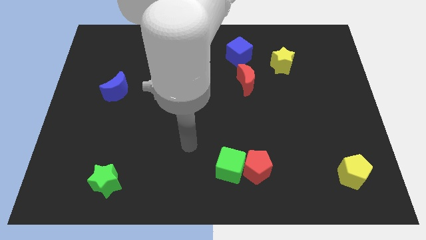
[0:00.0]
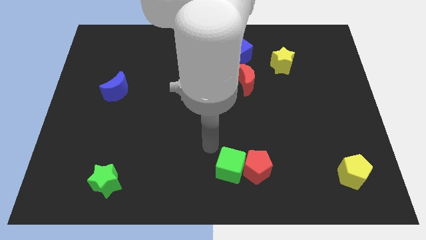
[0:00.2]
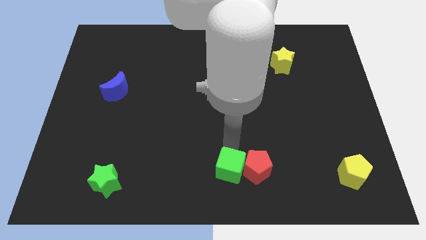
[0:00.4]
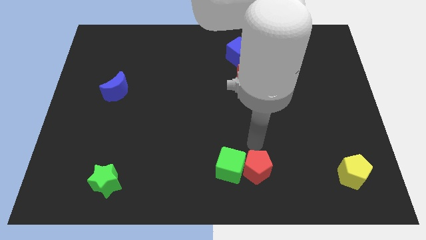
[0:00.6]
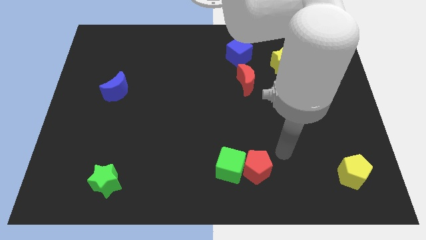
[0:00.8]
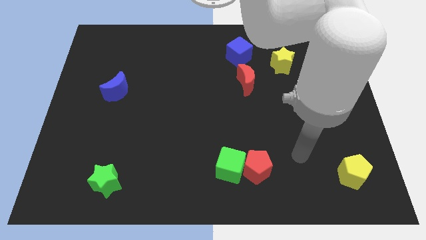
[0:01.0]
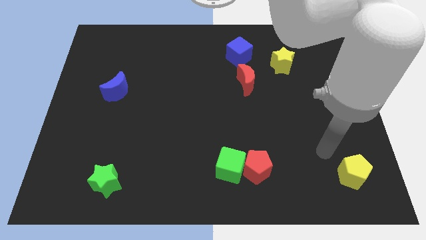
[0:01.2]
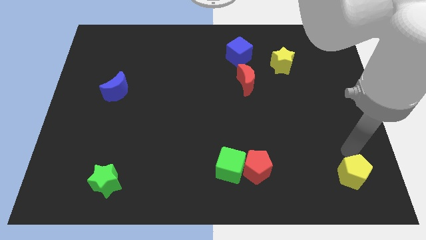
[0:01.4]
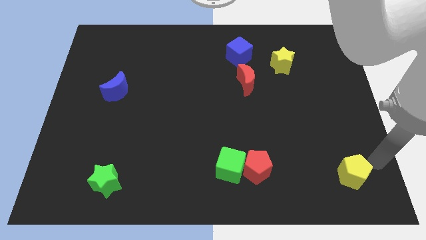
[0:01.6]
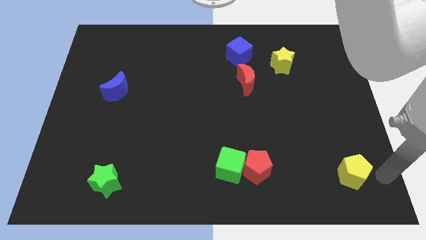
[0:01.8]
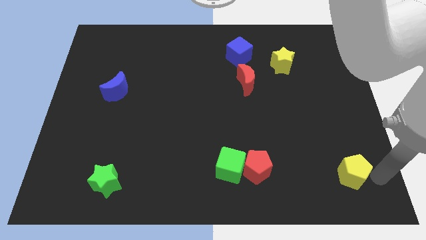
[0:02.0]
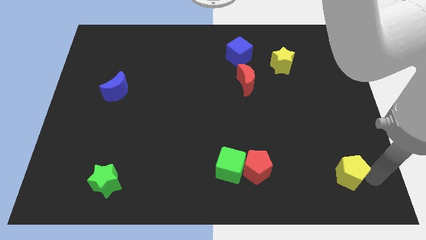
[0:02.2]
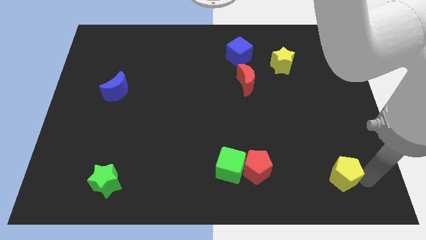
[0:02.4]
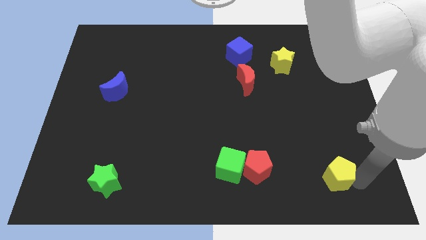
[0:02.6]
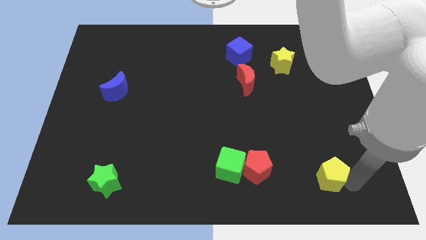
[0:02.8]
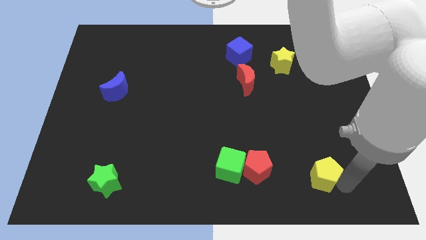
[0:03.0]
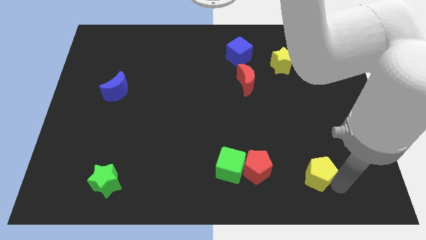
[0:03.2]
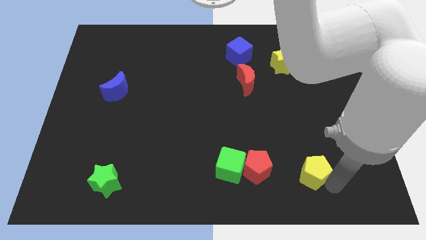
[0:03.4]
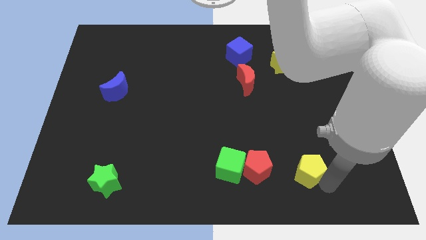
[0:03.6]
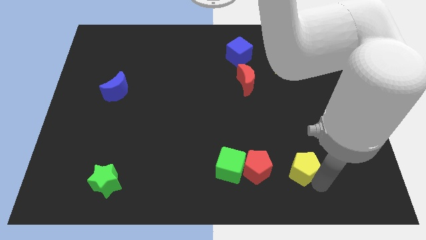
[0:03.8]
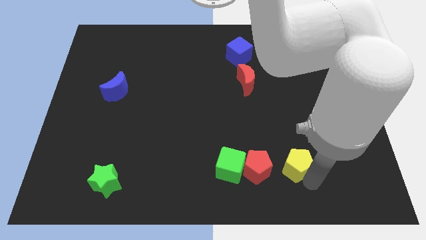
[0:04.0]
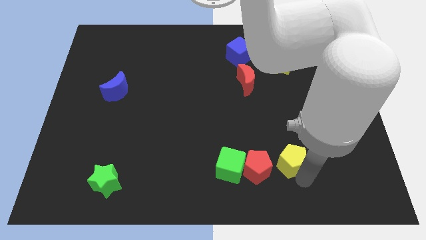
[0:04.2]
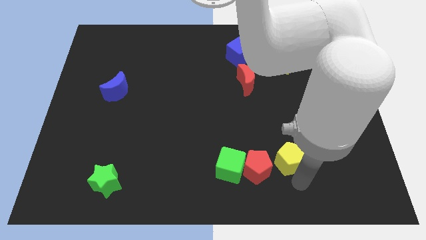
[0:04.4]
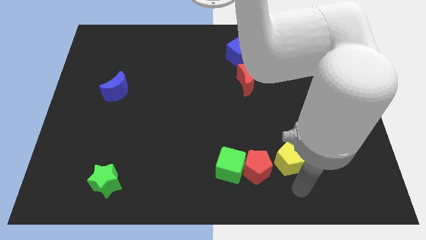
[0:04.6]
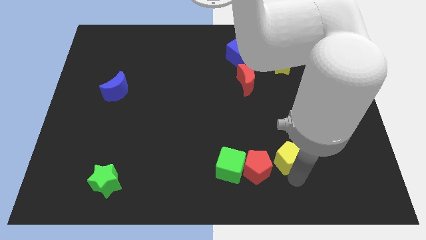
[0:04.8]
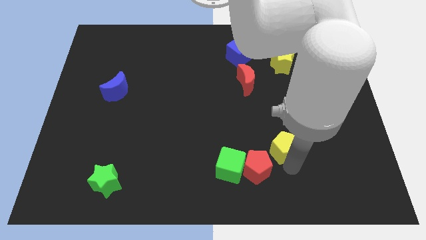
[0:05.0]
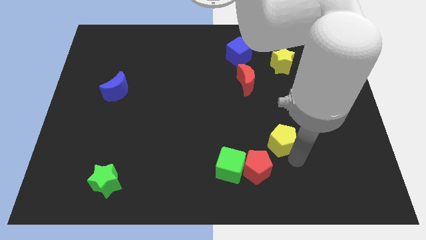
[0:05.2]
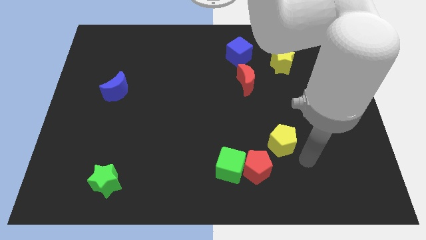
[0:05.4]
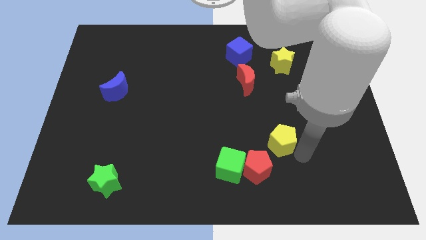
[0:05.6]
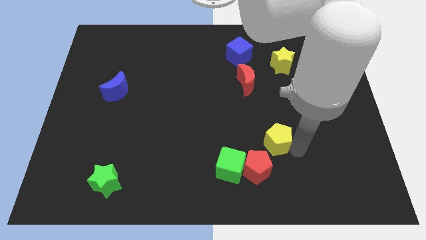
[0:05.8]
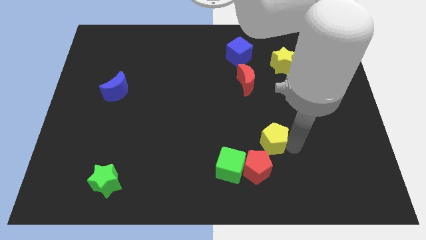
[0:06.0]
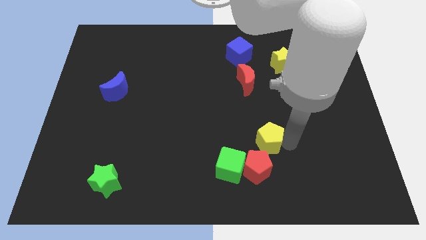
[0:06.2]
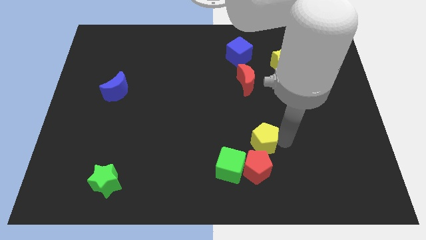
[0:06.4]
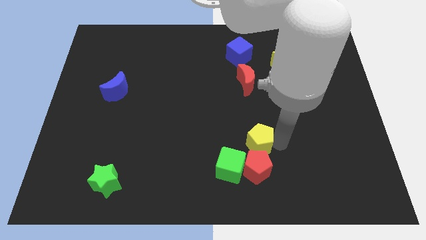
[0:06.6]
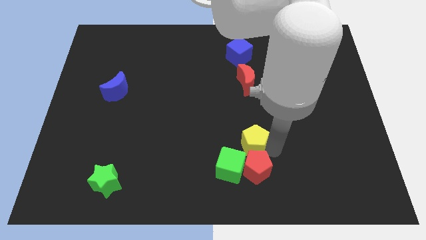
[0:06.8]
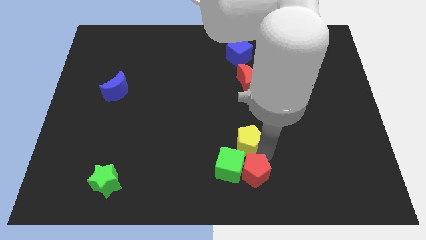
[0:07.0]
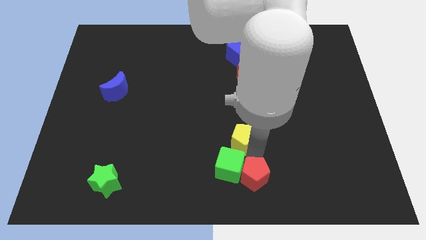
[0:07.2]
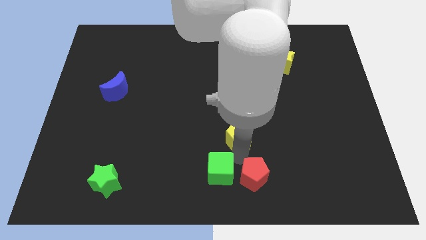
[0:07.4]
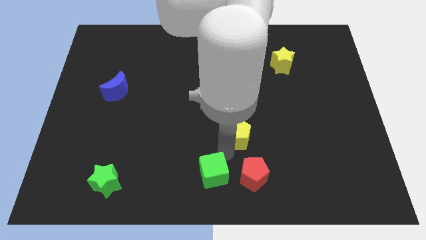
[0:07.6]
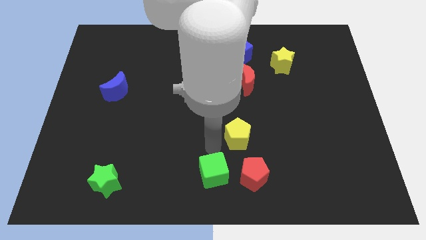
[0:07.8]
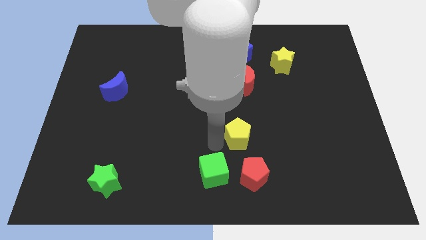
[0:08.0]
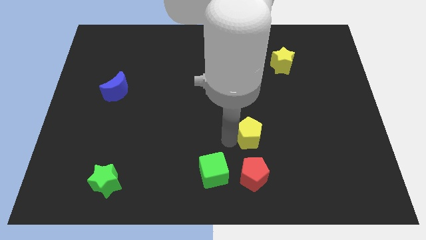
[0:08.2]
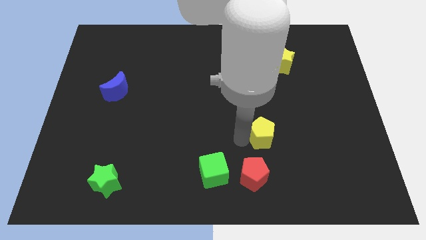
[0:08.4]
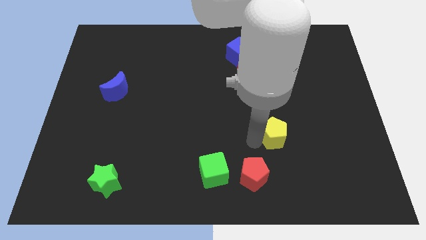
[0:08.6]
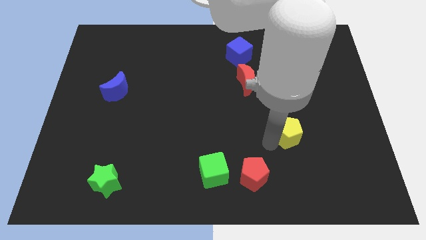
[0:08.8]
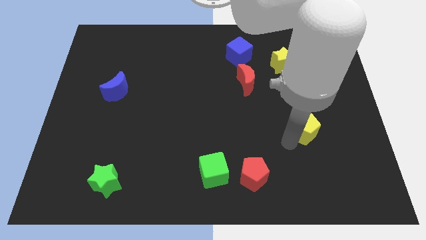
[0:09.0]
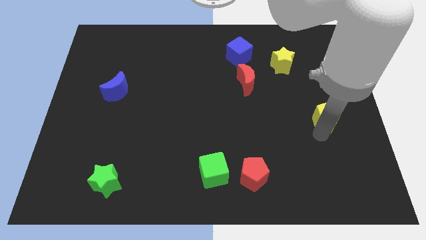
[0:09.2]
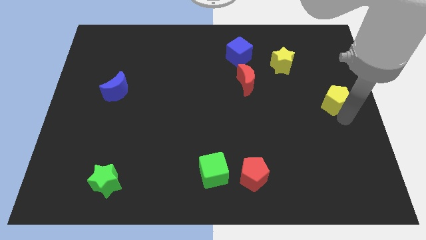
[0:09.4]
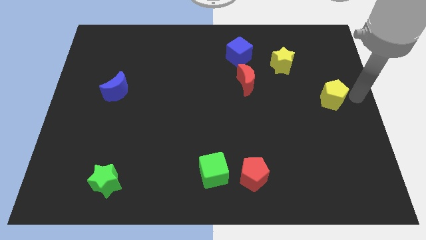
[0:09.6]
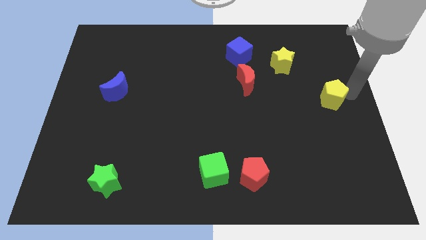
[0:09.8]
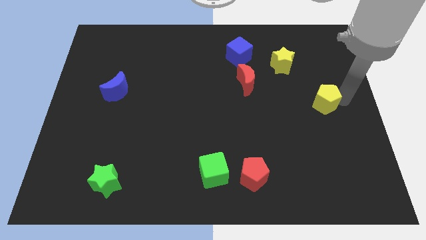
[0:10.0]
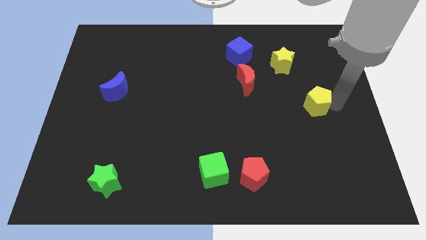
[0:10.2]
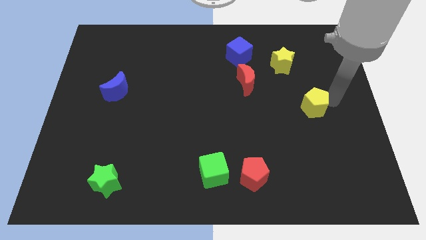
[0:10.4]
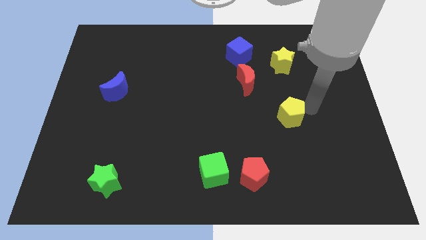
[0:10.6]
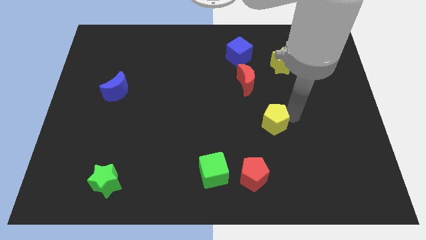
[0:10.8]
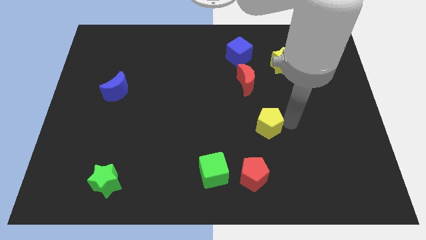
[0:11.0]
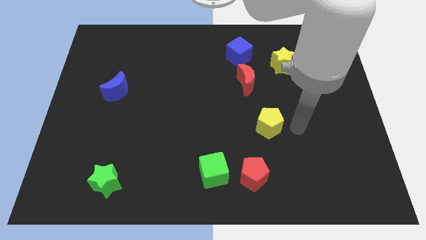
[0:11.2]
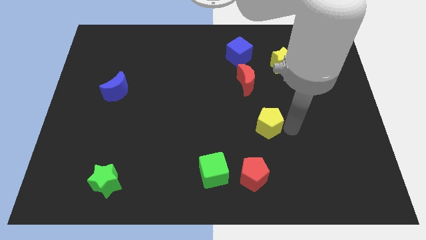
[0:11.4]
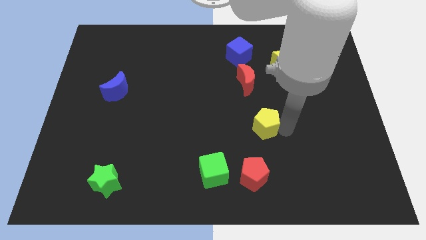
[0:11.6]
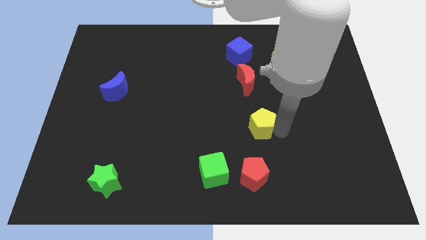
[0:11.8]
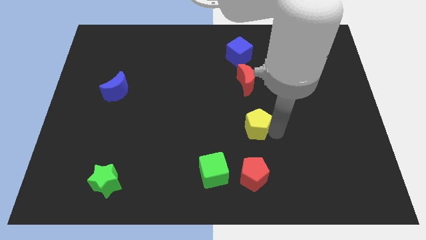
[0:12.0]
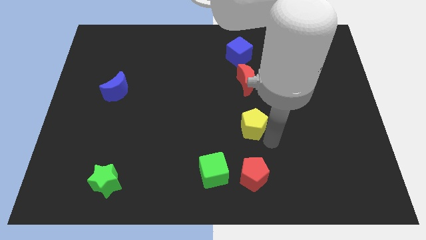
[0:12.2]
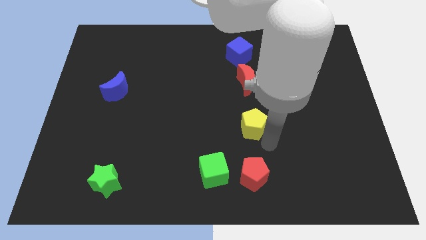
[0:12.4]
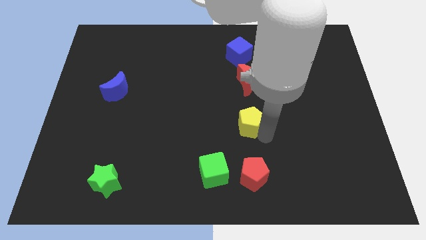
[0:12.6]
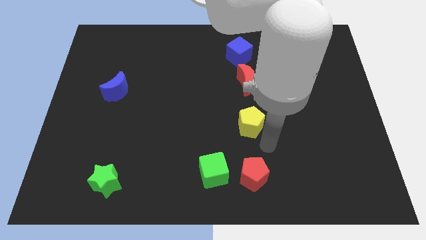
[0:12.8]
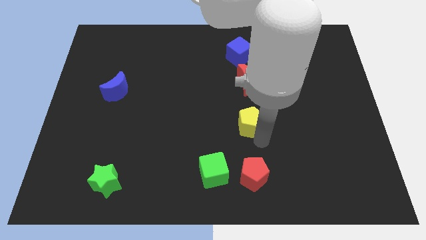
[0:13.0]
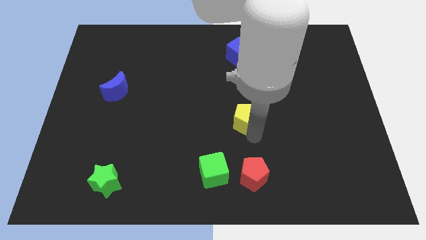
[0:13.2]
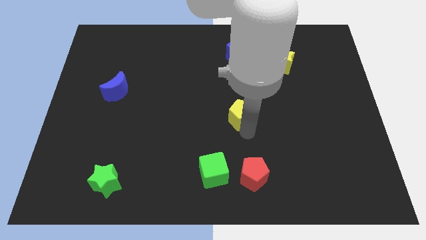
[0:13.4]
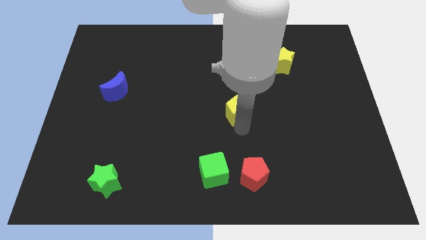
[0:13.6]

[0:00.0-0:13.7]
move the yellow pentagon to the bottom left of the red moon
